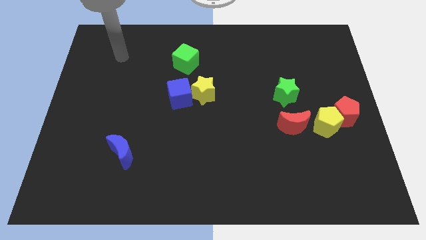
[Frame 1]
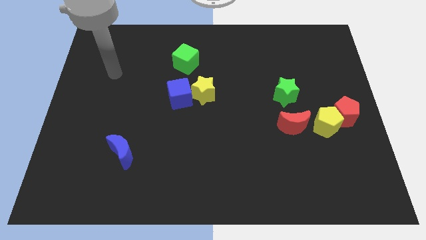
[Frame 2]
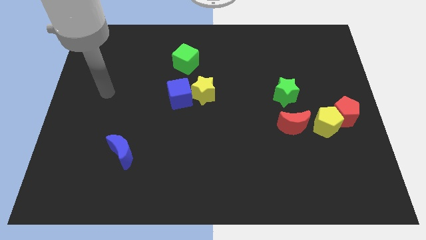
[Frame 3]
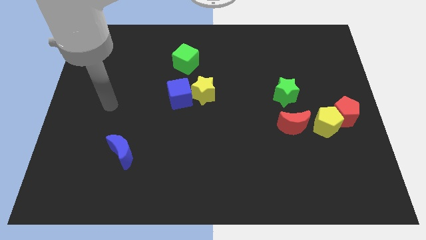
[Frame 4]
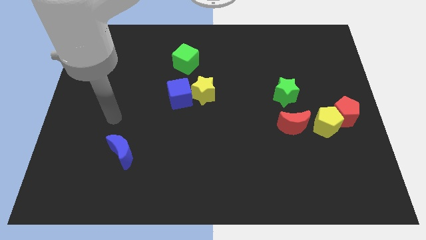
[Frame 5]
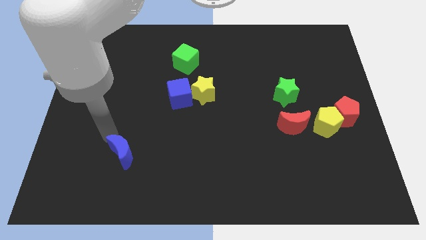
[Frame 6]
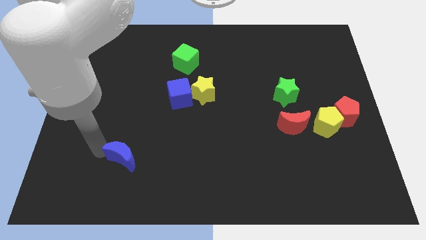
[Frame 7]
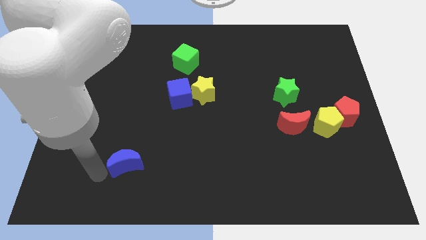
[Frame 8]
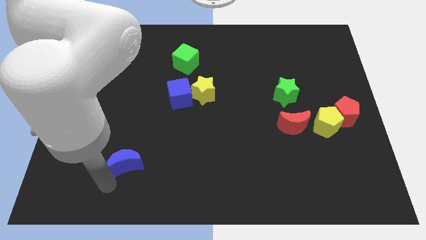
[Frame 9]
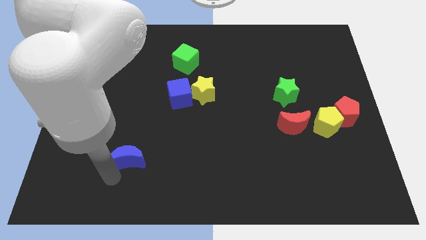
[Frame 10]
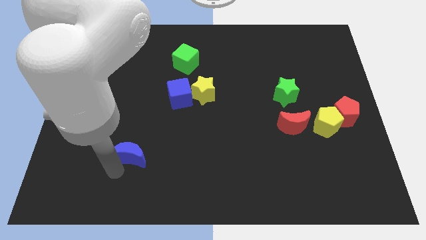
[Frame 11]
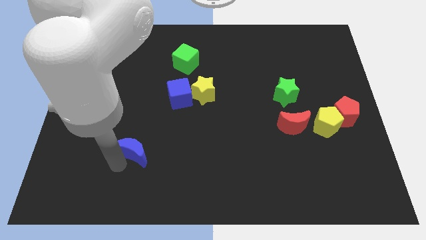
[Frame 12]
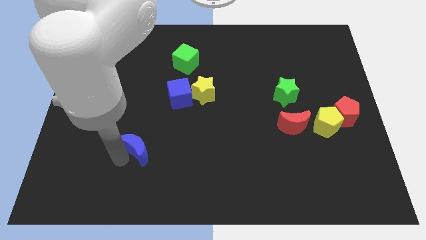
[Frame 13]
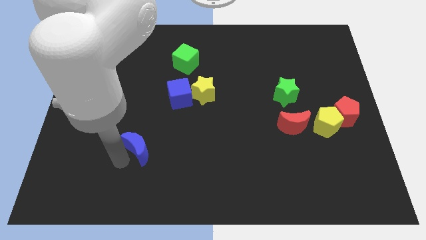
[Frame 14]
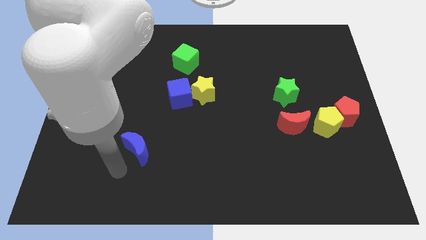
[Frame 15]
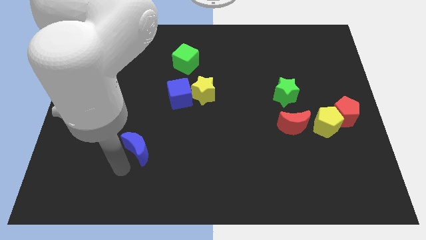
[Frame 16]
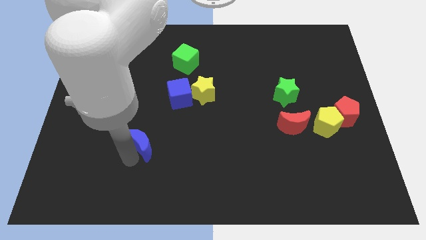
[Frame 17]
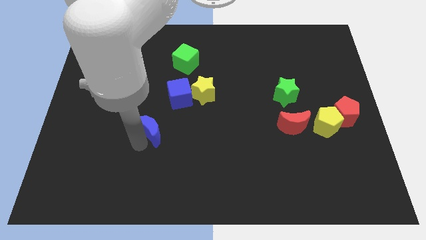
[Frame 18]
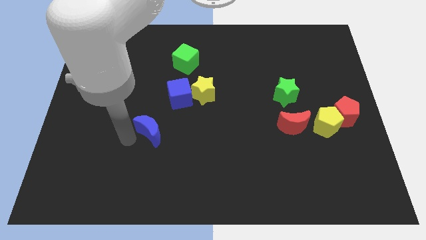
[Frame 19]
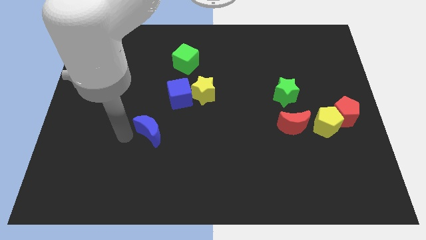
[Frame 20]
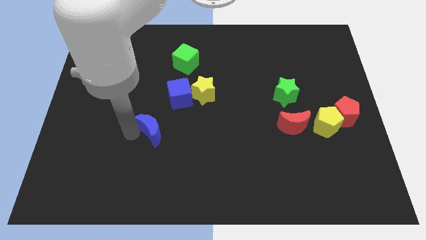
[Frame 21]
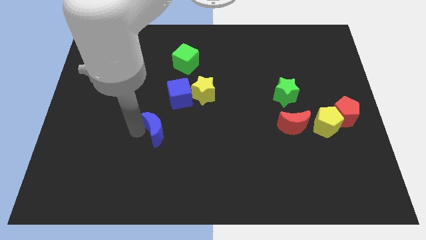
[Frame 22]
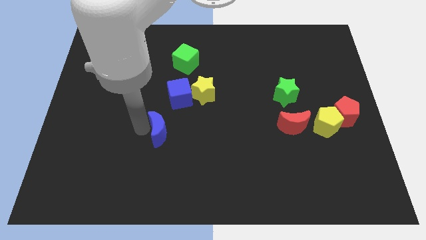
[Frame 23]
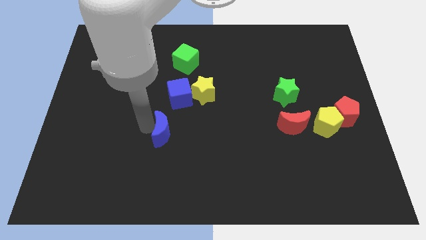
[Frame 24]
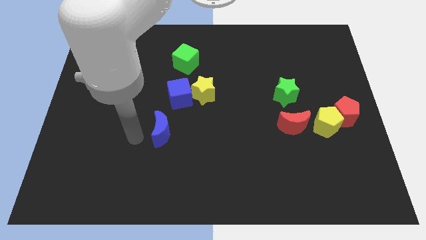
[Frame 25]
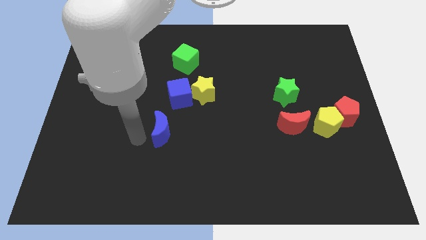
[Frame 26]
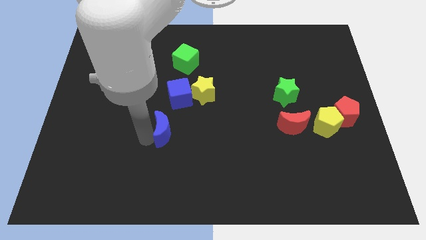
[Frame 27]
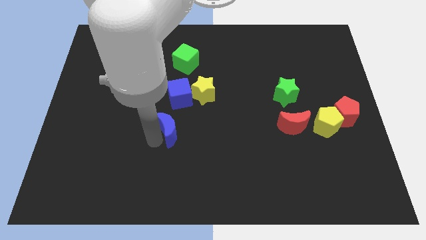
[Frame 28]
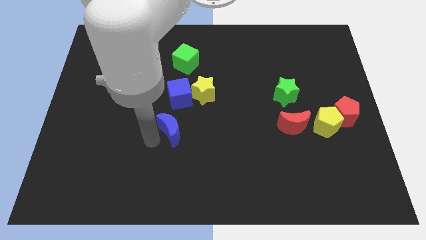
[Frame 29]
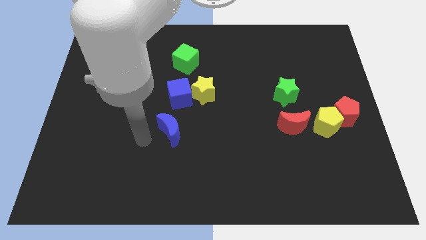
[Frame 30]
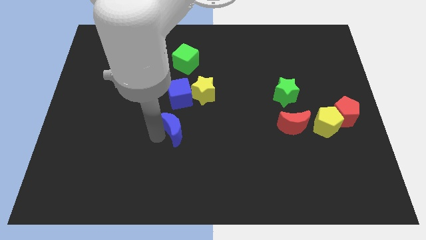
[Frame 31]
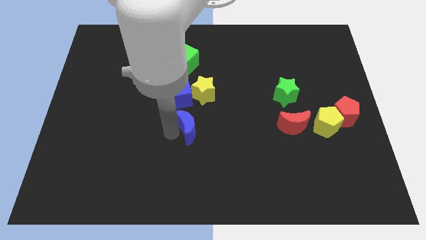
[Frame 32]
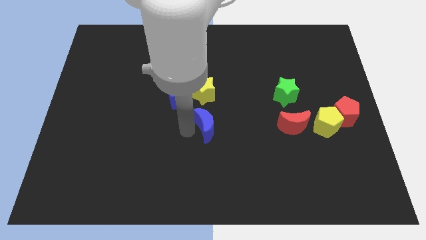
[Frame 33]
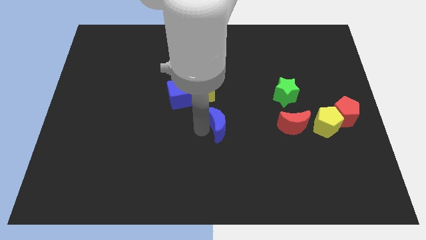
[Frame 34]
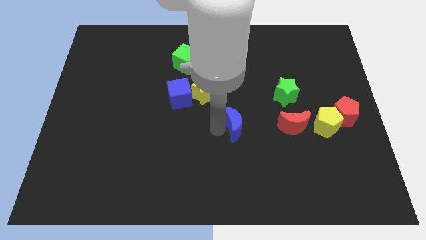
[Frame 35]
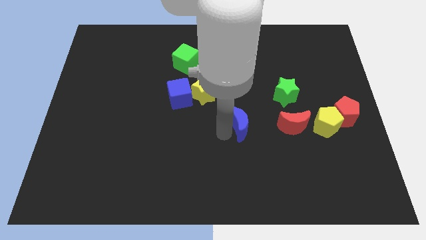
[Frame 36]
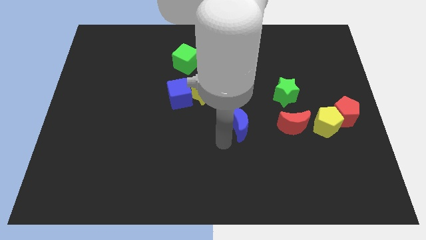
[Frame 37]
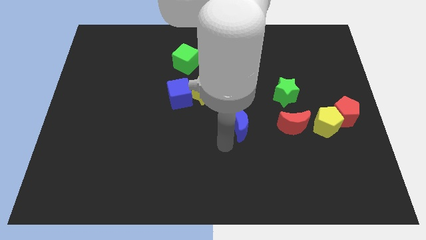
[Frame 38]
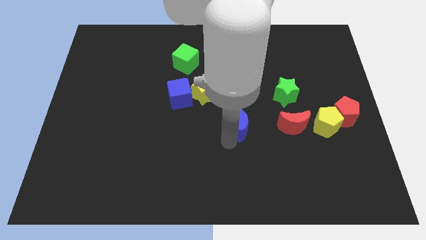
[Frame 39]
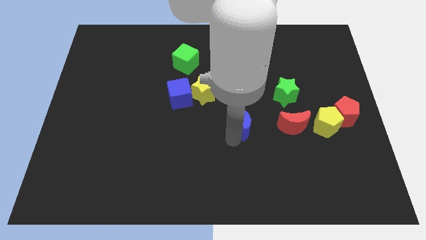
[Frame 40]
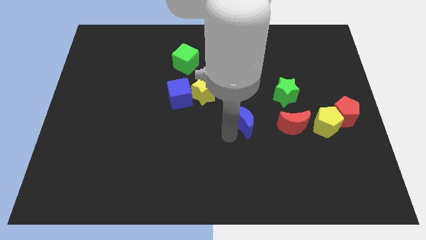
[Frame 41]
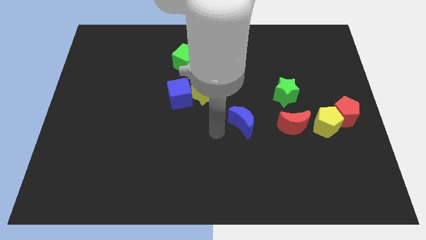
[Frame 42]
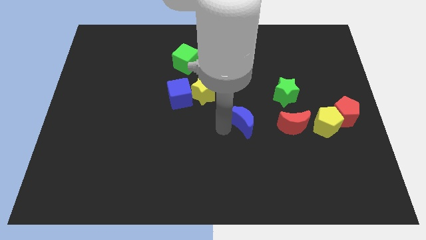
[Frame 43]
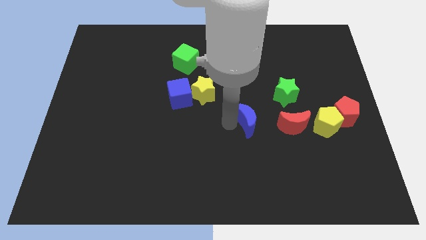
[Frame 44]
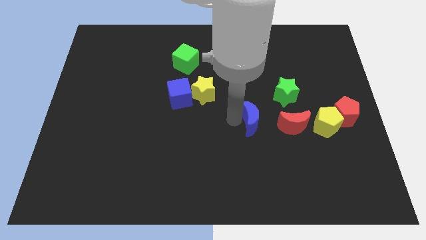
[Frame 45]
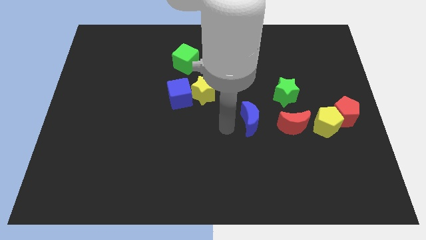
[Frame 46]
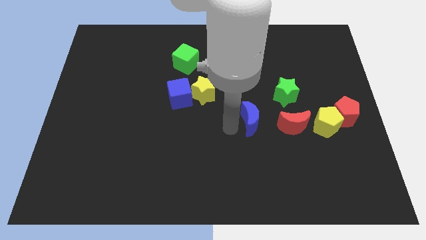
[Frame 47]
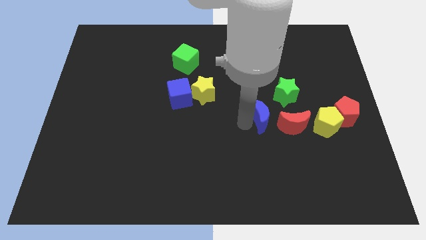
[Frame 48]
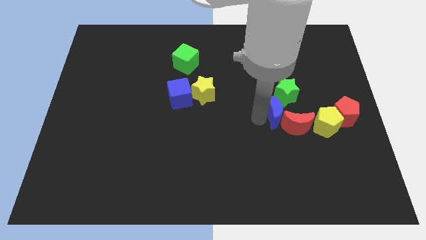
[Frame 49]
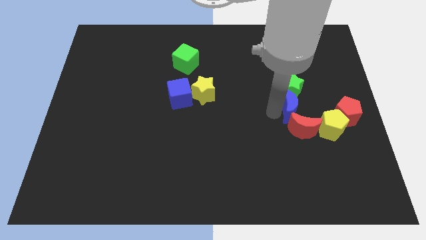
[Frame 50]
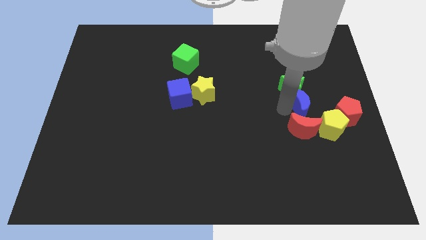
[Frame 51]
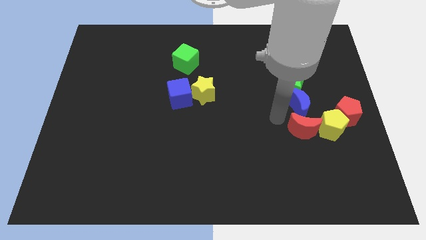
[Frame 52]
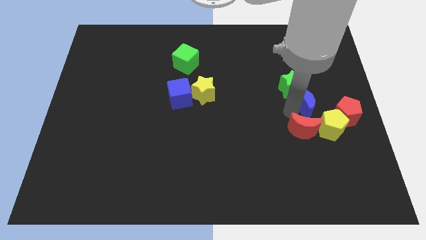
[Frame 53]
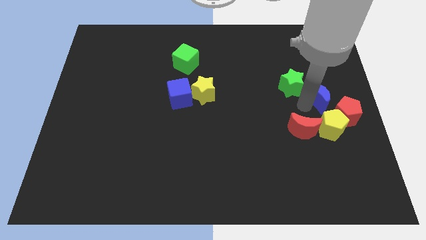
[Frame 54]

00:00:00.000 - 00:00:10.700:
put the blue moon to the right side

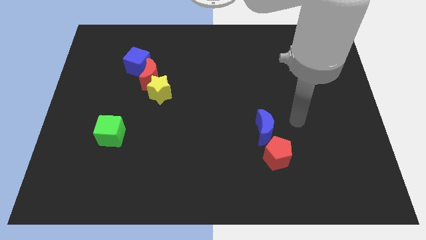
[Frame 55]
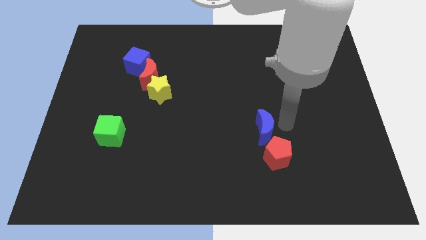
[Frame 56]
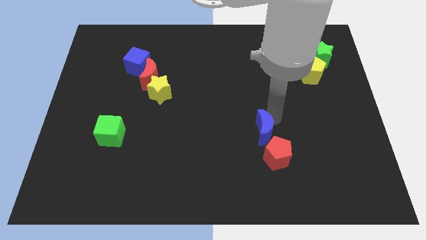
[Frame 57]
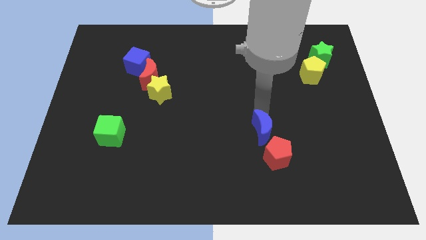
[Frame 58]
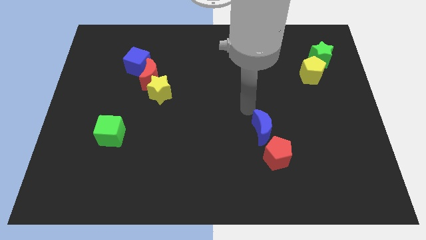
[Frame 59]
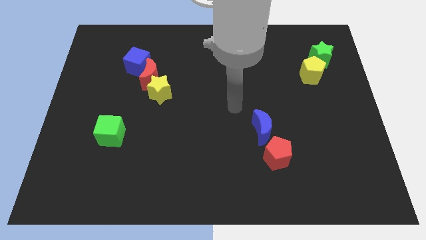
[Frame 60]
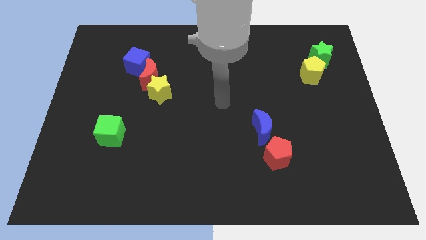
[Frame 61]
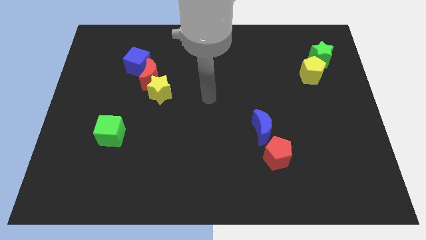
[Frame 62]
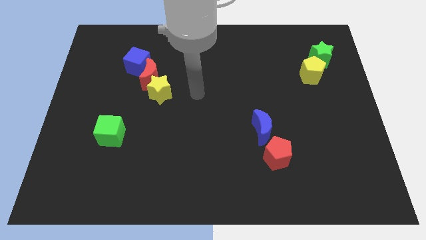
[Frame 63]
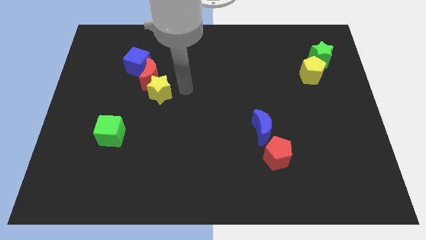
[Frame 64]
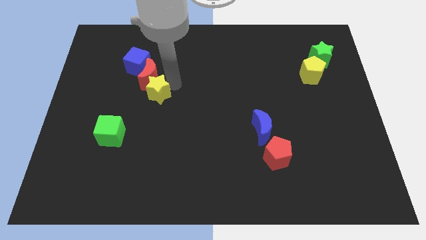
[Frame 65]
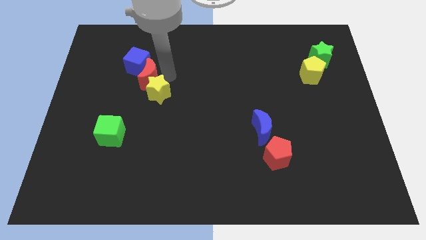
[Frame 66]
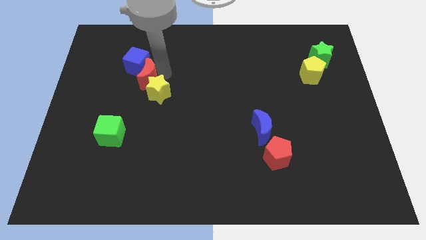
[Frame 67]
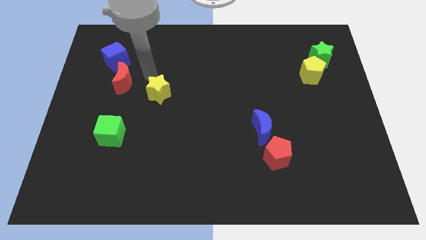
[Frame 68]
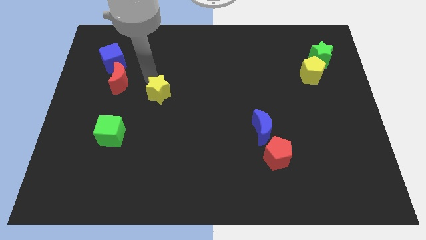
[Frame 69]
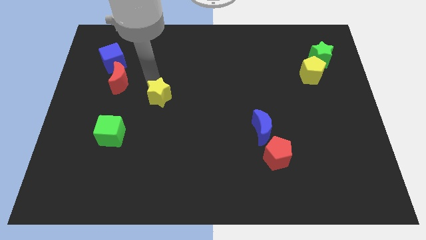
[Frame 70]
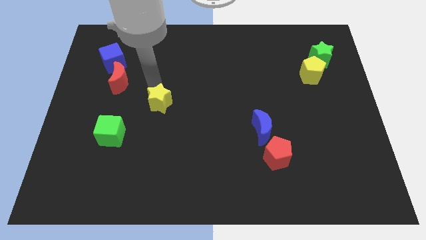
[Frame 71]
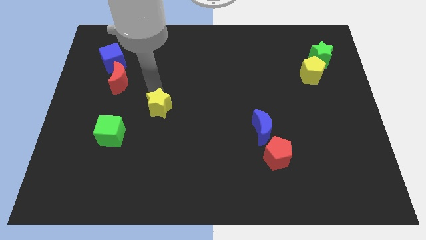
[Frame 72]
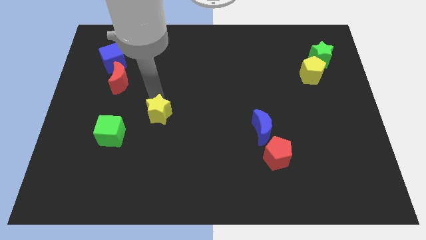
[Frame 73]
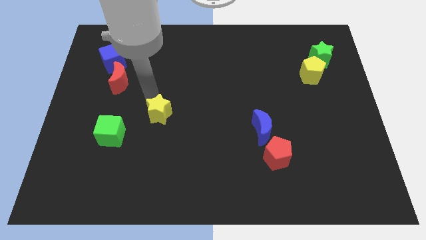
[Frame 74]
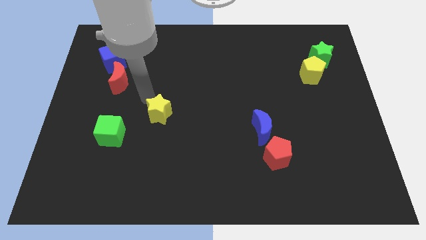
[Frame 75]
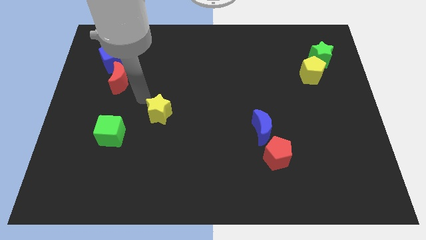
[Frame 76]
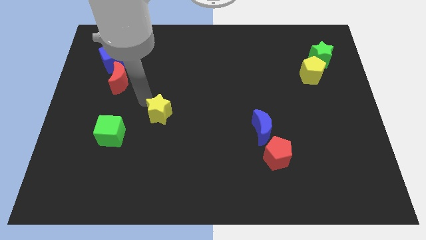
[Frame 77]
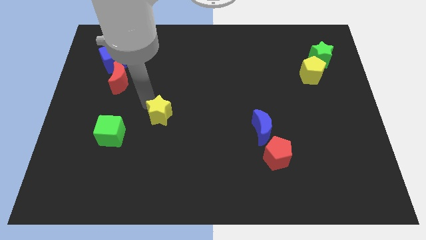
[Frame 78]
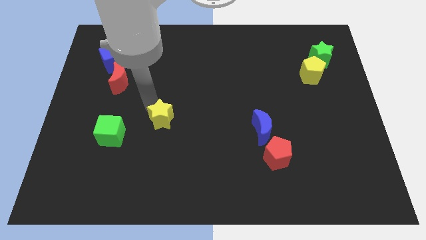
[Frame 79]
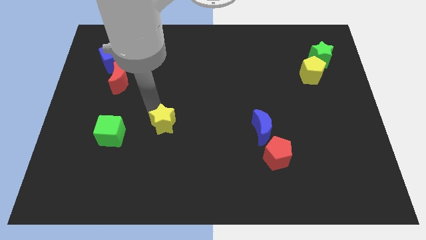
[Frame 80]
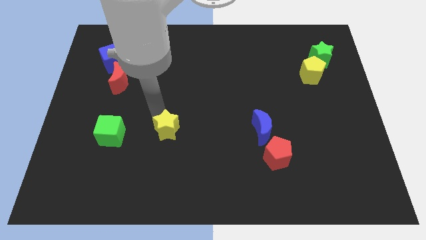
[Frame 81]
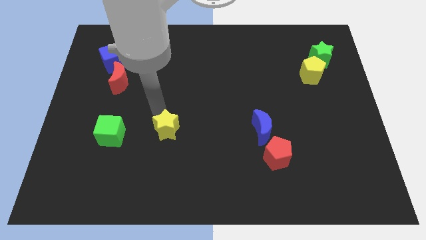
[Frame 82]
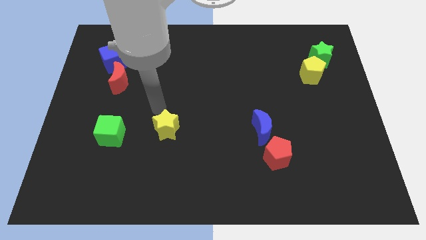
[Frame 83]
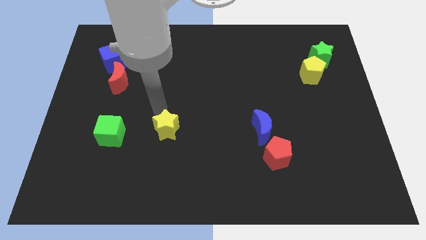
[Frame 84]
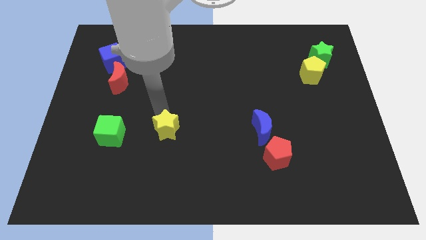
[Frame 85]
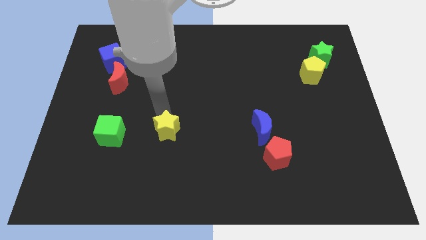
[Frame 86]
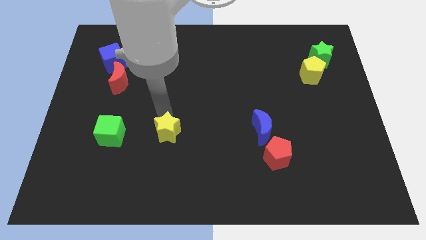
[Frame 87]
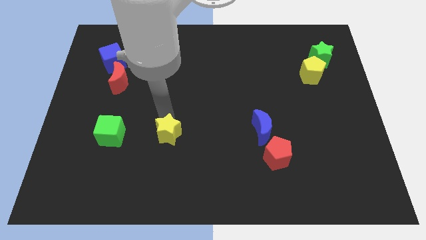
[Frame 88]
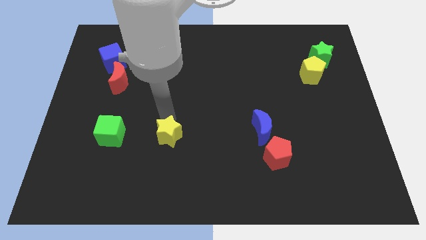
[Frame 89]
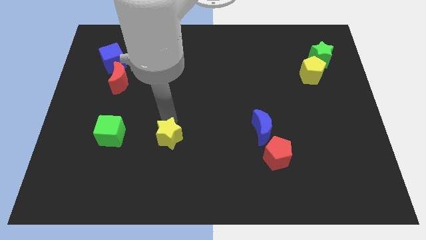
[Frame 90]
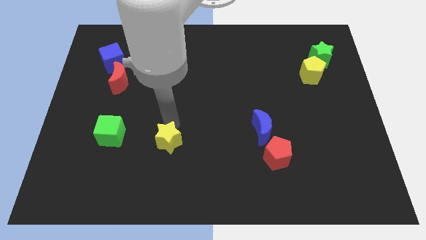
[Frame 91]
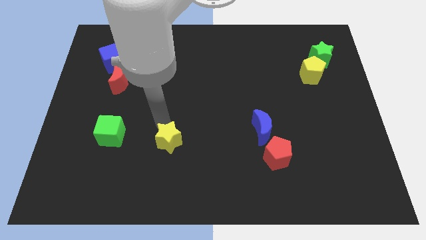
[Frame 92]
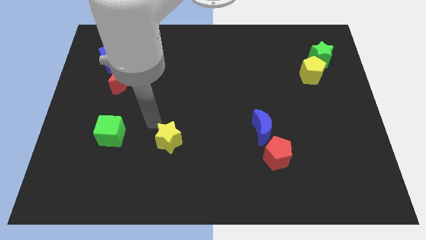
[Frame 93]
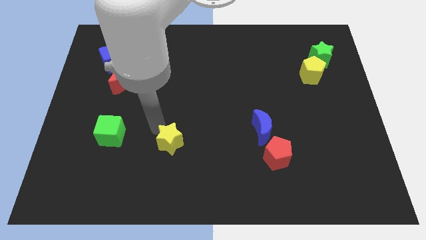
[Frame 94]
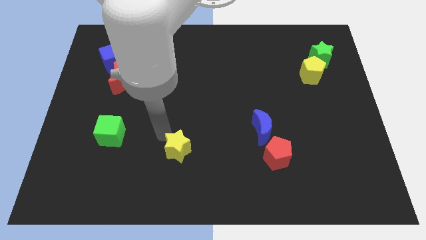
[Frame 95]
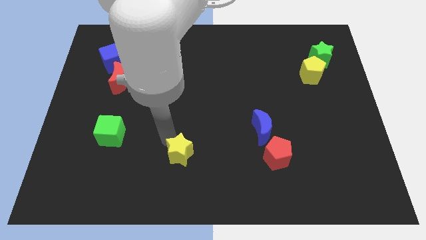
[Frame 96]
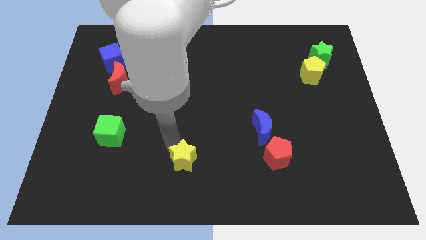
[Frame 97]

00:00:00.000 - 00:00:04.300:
put the yellow star to the bottom side
